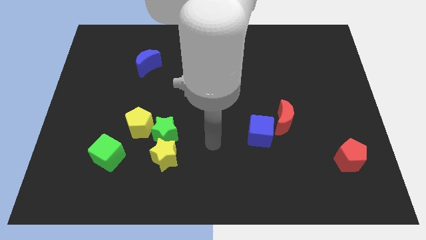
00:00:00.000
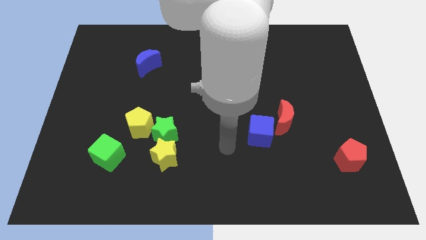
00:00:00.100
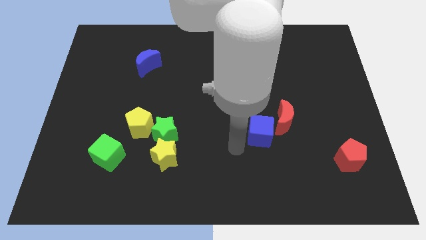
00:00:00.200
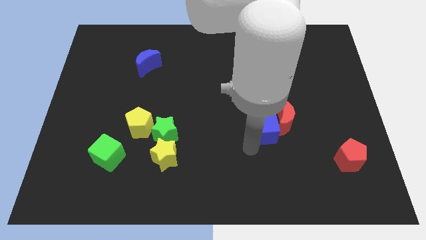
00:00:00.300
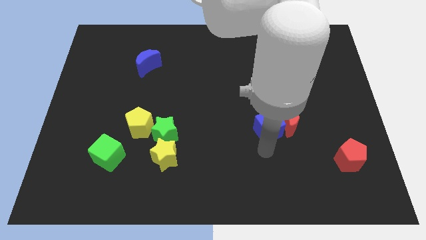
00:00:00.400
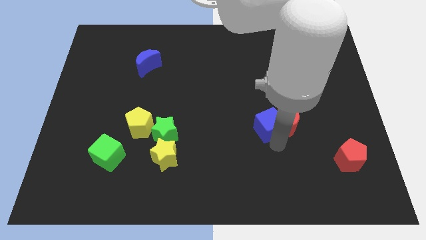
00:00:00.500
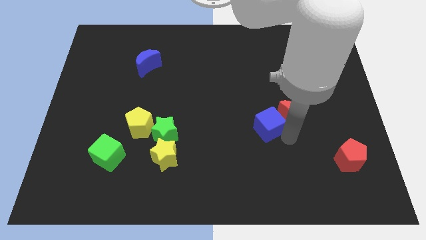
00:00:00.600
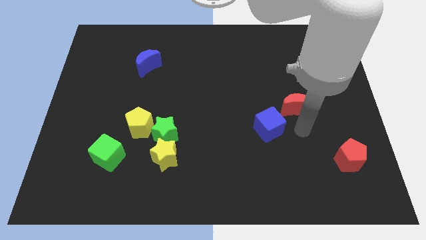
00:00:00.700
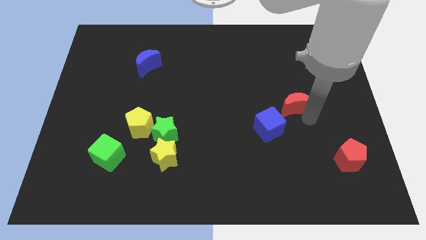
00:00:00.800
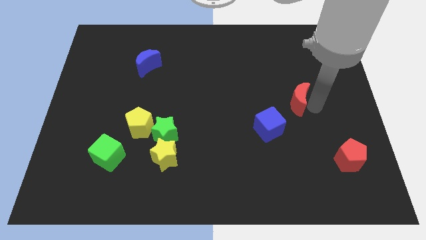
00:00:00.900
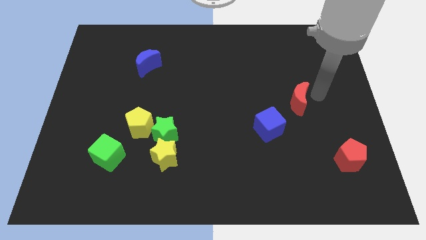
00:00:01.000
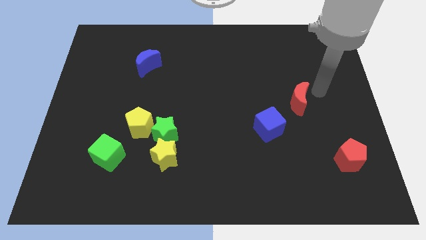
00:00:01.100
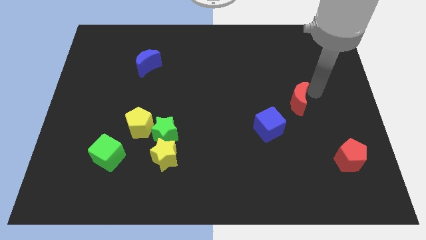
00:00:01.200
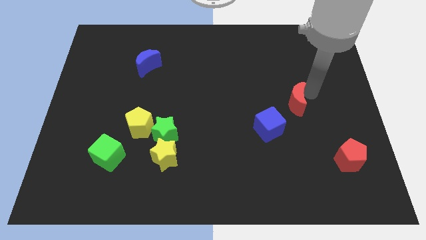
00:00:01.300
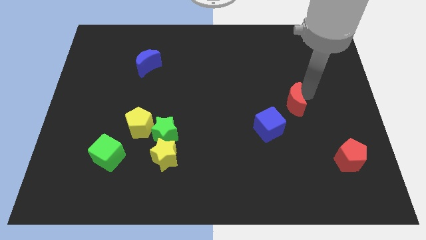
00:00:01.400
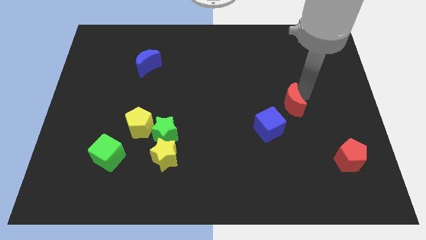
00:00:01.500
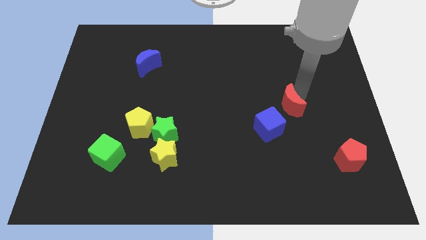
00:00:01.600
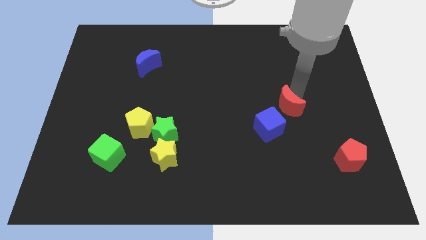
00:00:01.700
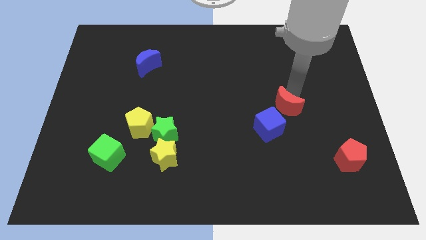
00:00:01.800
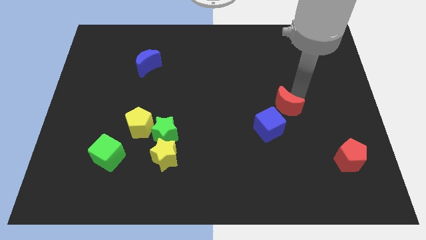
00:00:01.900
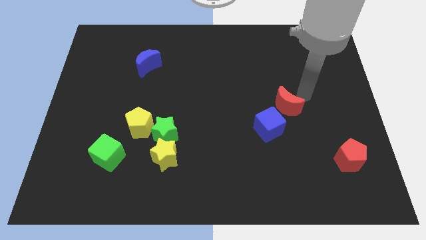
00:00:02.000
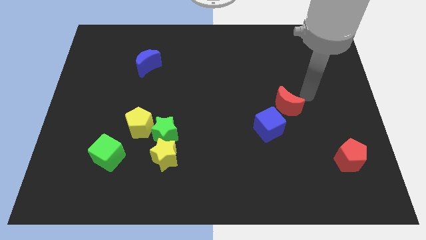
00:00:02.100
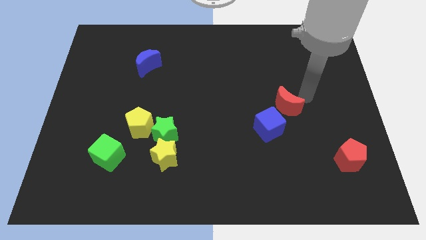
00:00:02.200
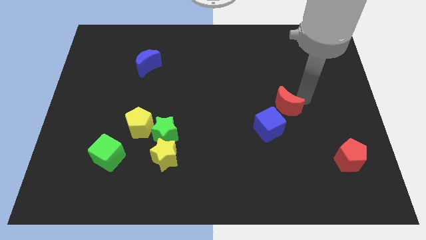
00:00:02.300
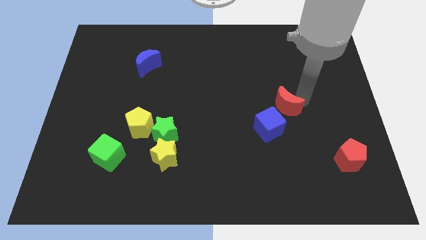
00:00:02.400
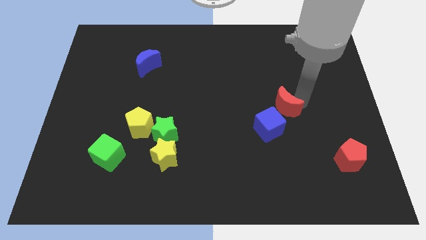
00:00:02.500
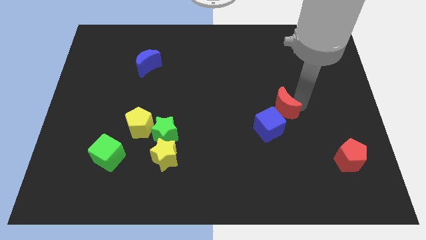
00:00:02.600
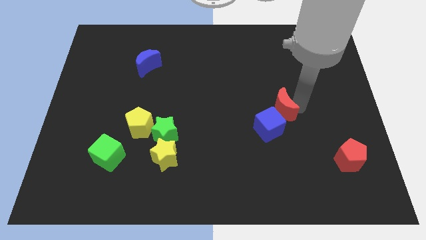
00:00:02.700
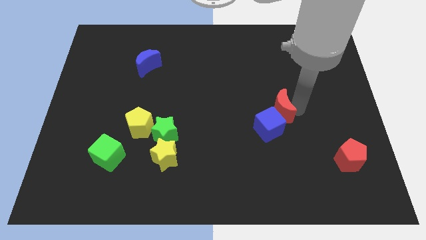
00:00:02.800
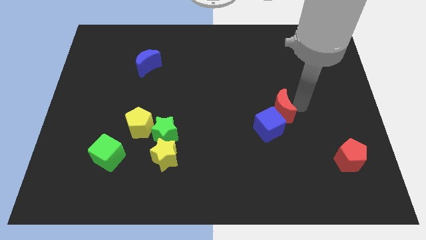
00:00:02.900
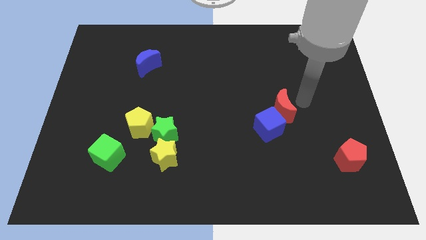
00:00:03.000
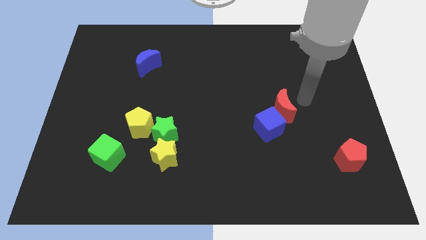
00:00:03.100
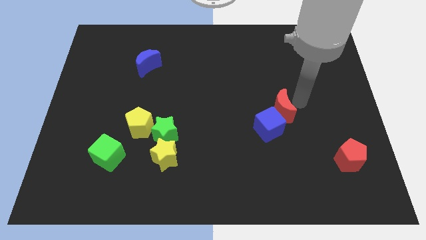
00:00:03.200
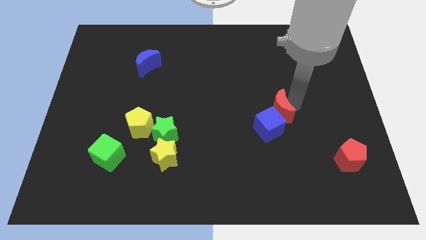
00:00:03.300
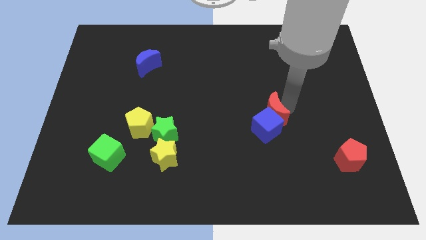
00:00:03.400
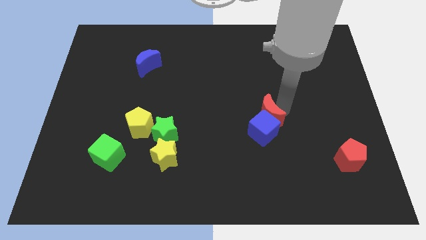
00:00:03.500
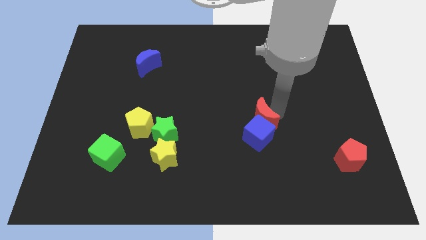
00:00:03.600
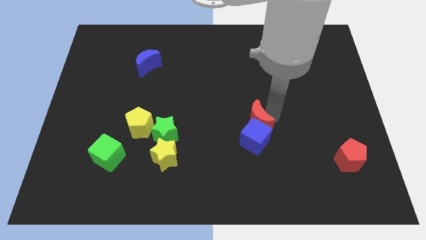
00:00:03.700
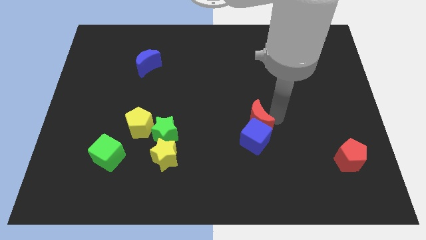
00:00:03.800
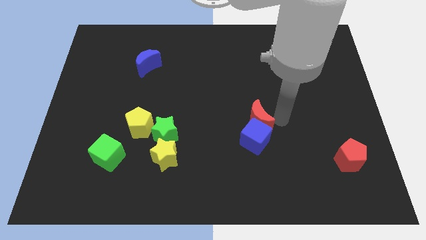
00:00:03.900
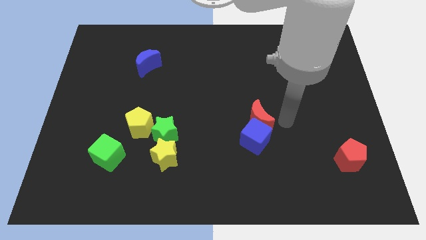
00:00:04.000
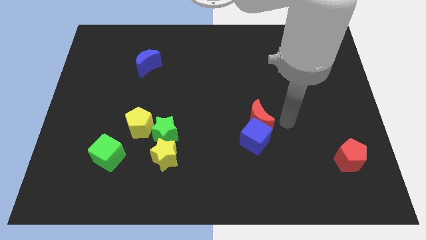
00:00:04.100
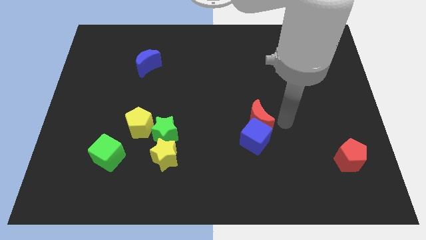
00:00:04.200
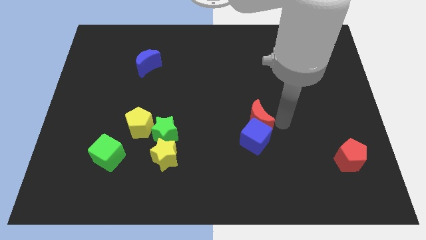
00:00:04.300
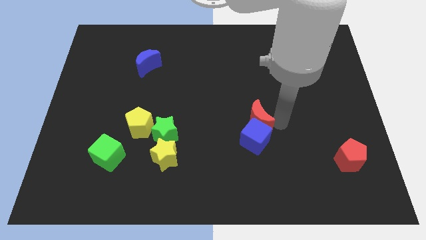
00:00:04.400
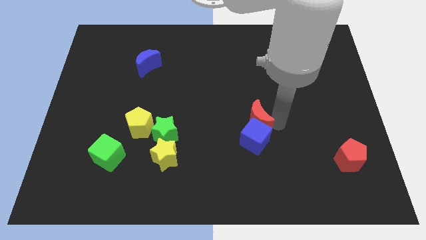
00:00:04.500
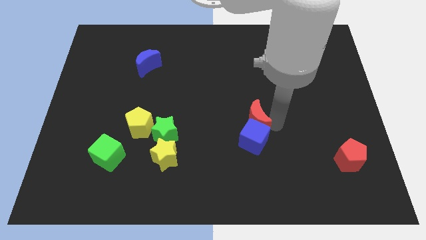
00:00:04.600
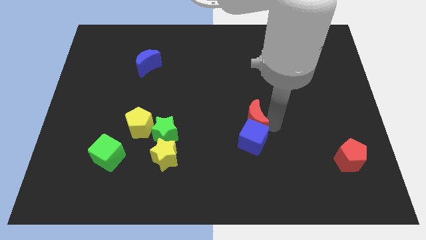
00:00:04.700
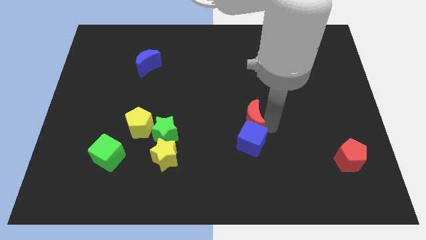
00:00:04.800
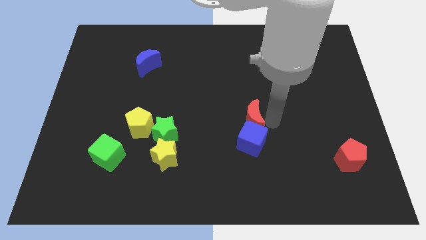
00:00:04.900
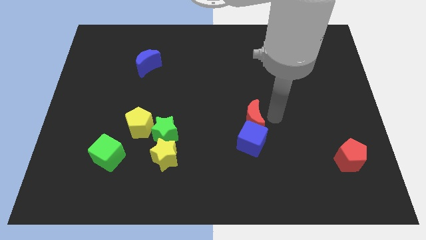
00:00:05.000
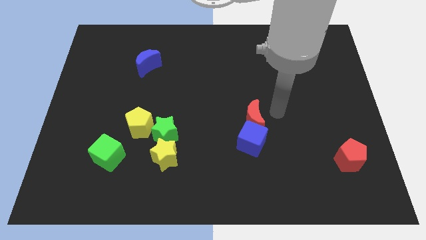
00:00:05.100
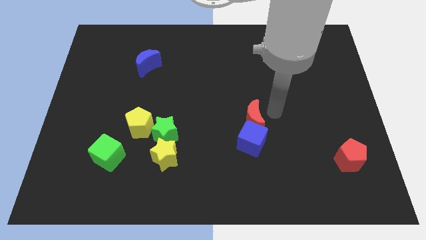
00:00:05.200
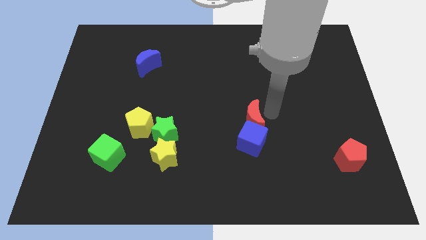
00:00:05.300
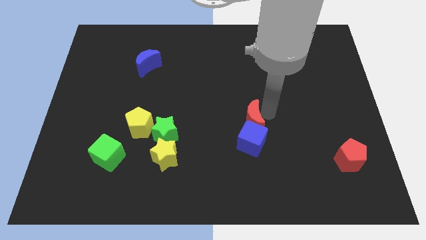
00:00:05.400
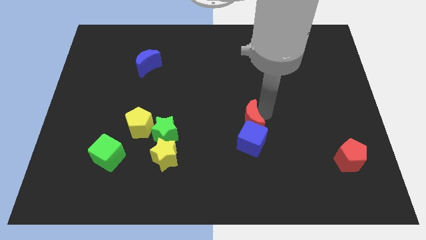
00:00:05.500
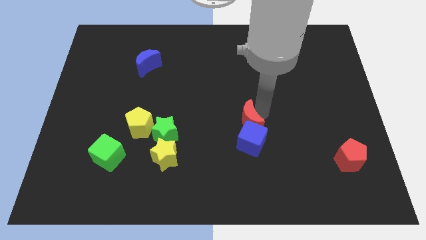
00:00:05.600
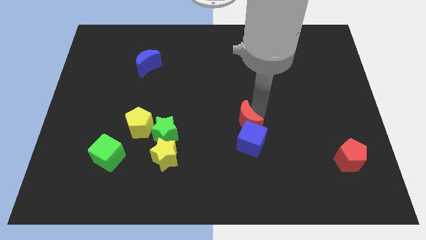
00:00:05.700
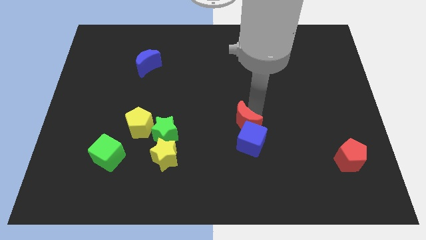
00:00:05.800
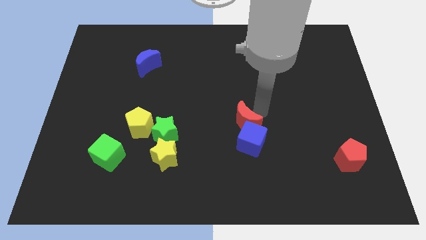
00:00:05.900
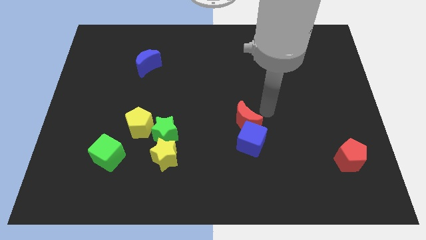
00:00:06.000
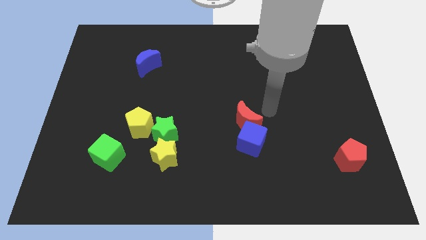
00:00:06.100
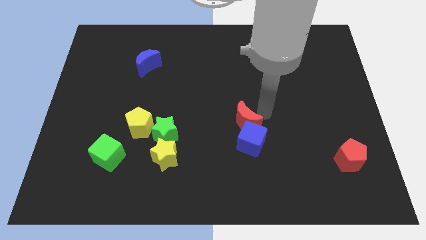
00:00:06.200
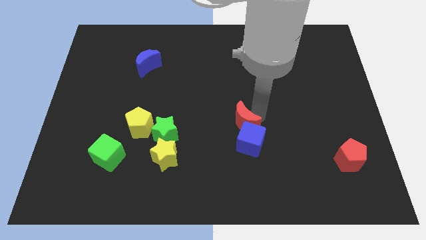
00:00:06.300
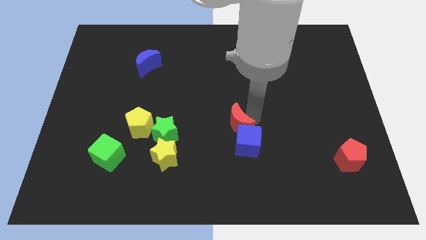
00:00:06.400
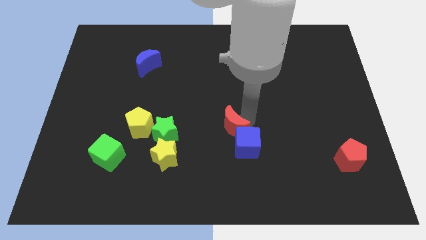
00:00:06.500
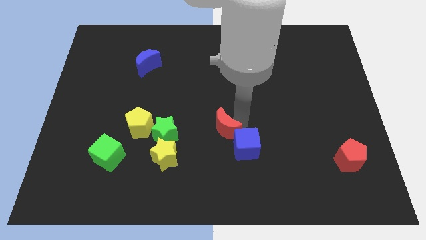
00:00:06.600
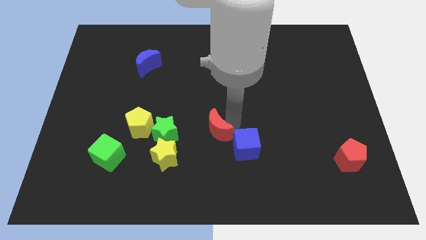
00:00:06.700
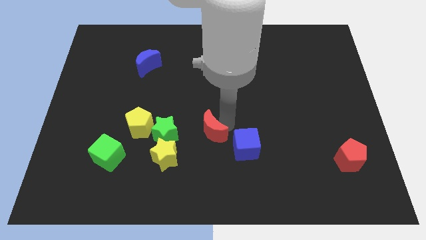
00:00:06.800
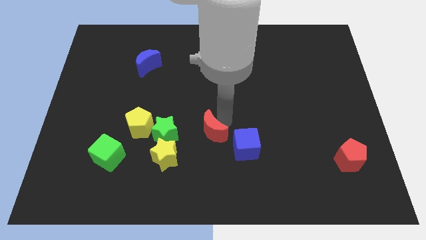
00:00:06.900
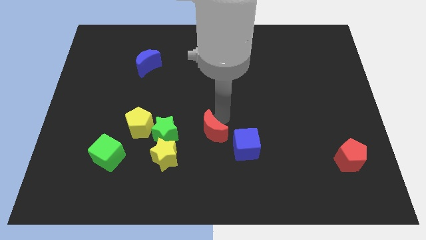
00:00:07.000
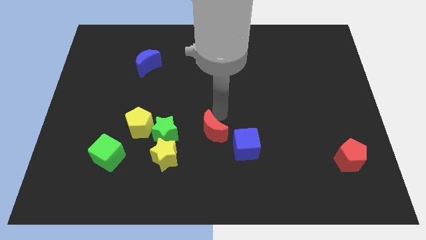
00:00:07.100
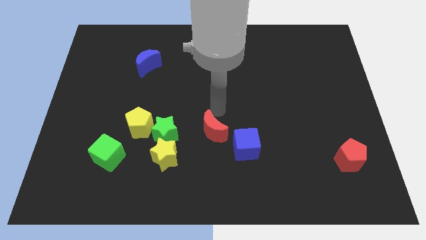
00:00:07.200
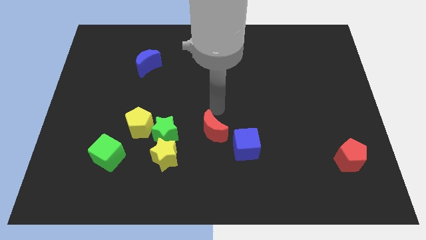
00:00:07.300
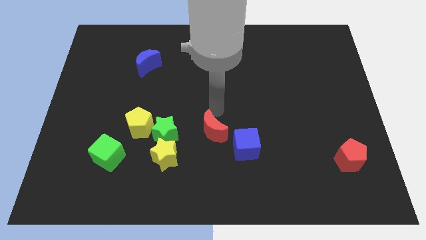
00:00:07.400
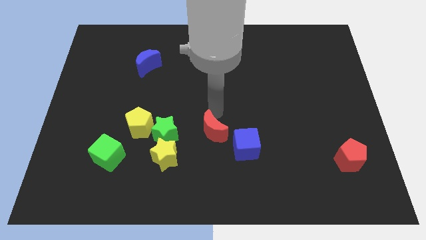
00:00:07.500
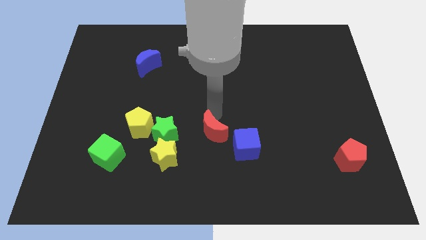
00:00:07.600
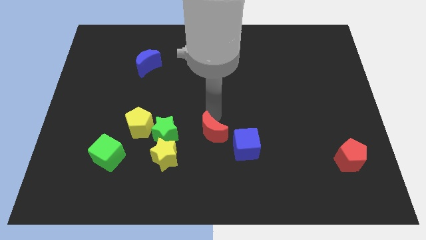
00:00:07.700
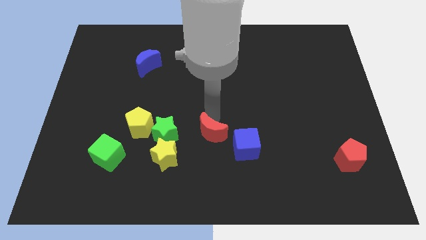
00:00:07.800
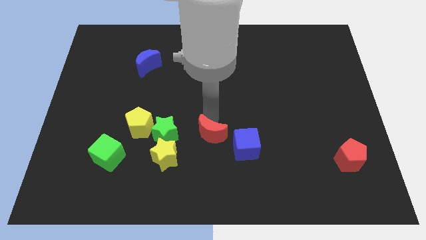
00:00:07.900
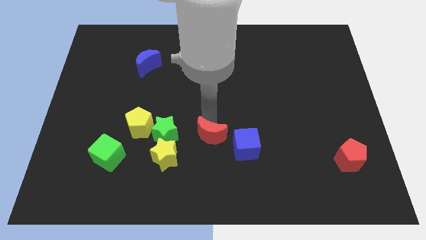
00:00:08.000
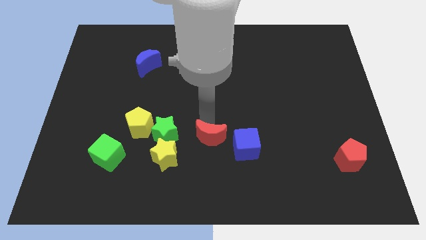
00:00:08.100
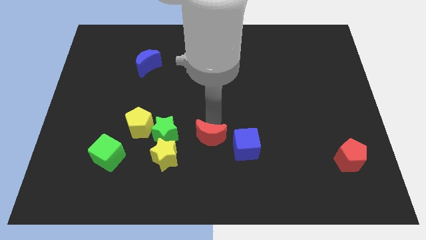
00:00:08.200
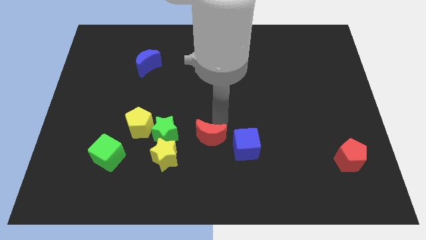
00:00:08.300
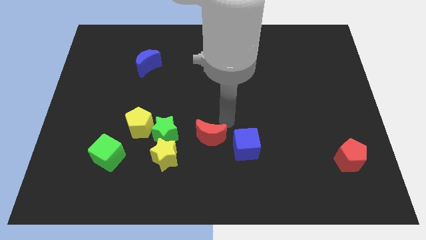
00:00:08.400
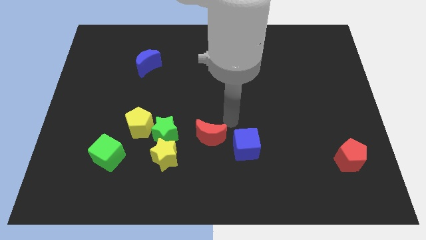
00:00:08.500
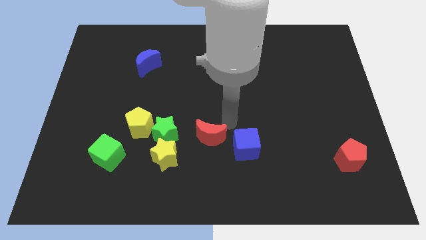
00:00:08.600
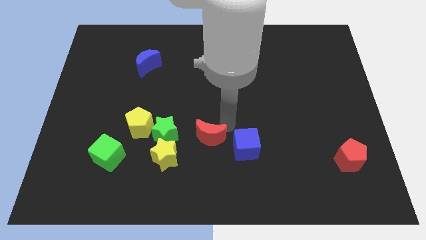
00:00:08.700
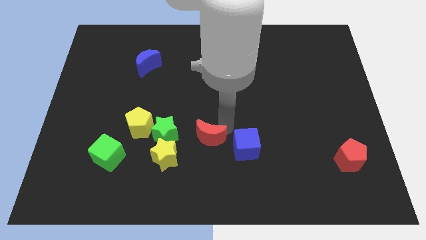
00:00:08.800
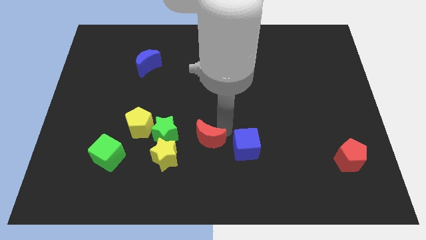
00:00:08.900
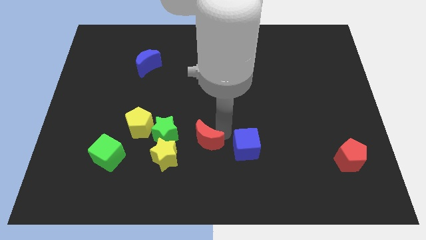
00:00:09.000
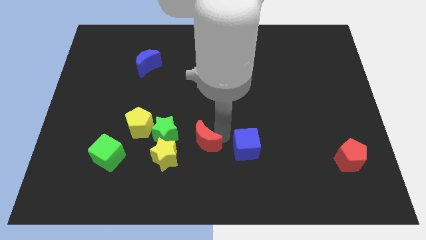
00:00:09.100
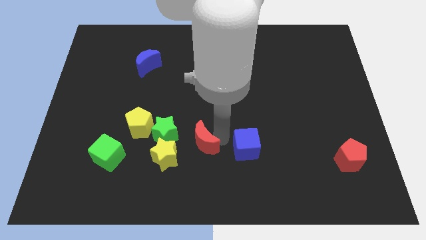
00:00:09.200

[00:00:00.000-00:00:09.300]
slide the red moon diagonally down and to the right of the green star
